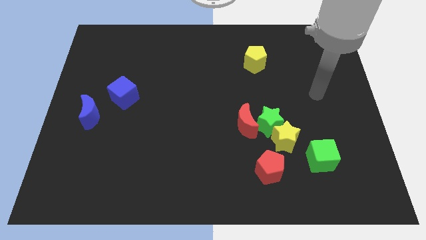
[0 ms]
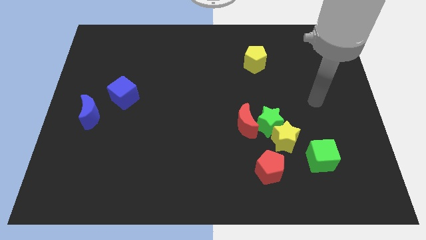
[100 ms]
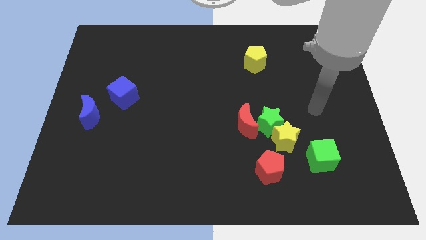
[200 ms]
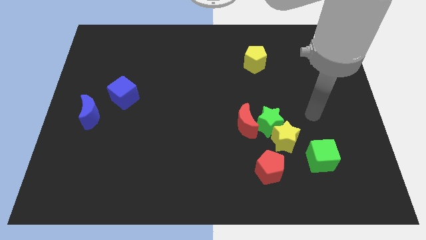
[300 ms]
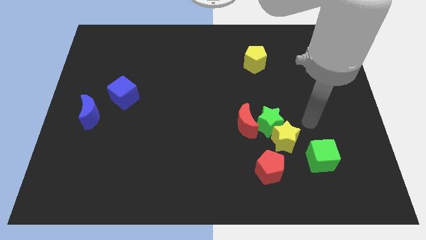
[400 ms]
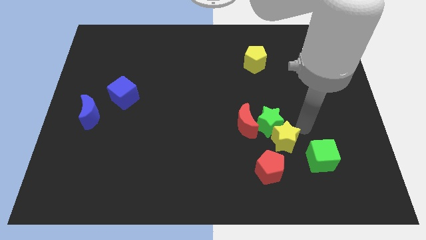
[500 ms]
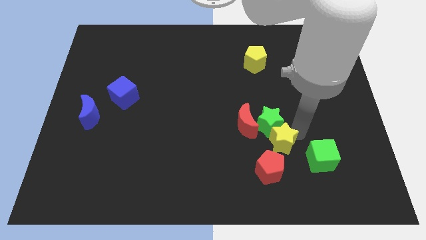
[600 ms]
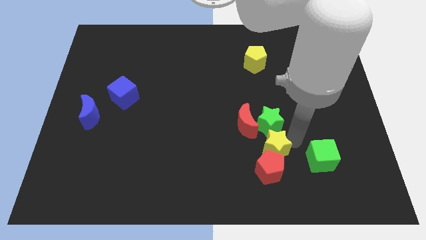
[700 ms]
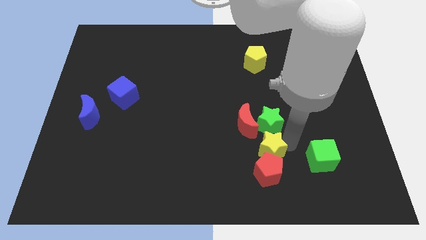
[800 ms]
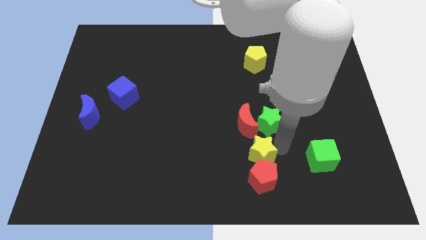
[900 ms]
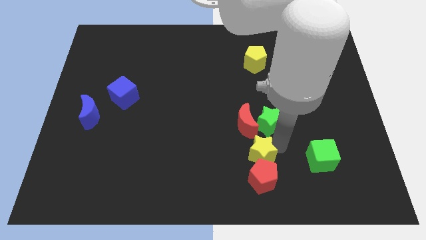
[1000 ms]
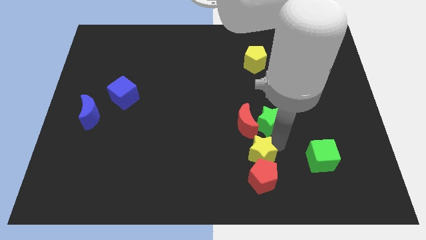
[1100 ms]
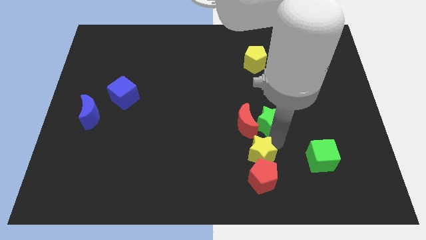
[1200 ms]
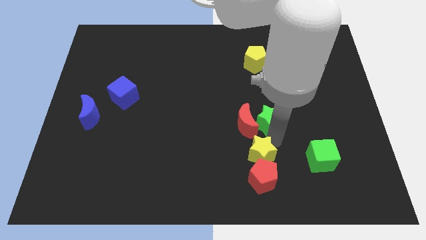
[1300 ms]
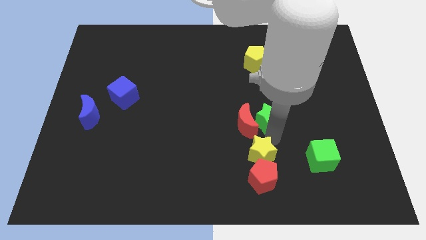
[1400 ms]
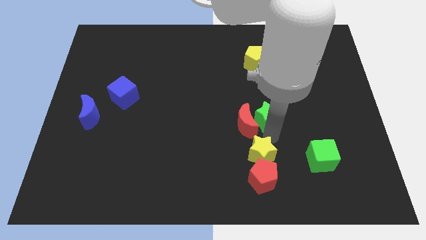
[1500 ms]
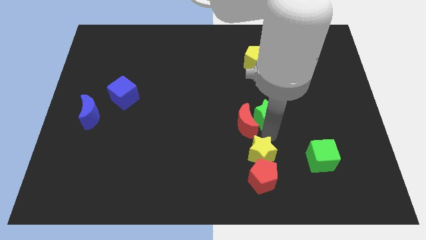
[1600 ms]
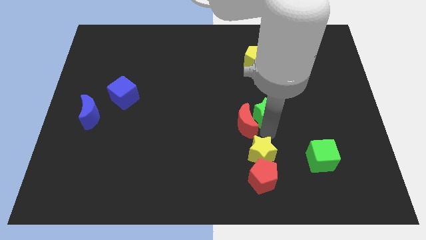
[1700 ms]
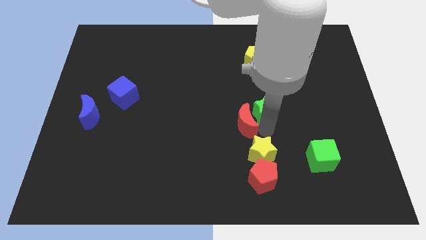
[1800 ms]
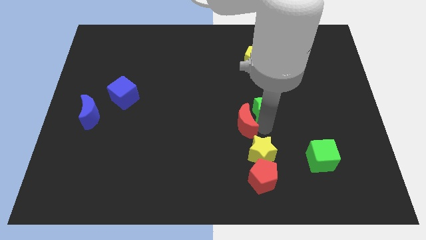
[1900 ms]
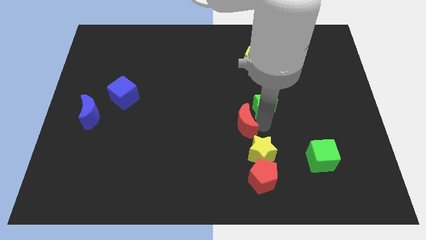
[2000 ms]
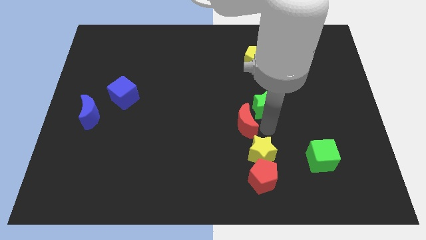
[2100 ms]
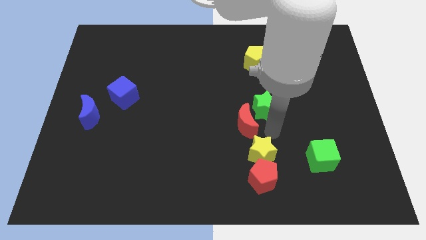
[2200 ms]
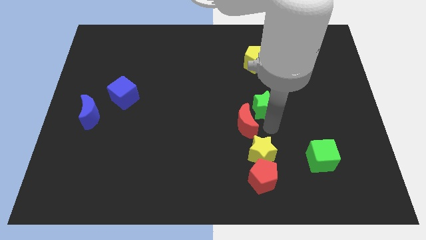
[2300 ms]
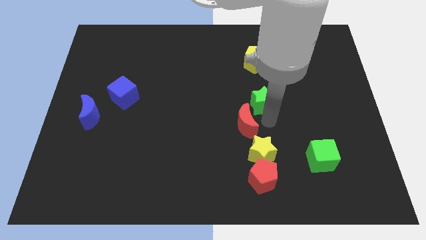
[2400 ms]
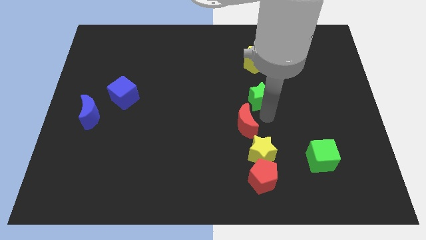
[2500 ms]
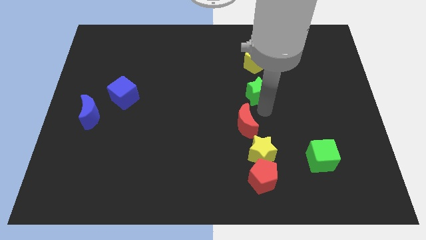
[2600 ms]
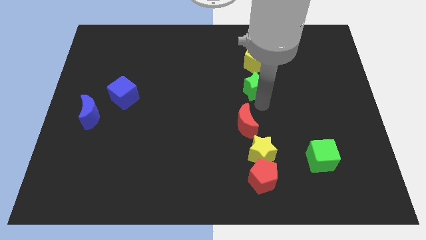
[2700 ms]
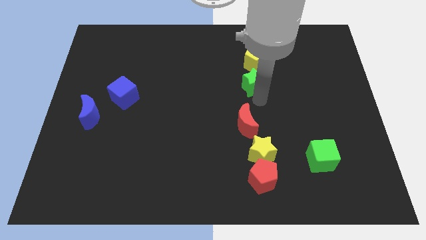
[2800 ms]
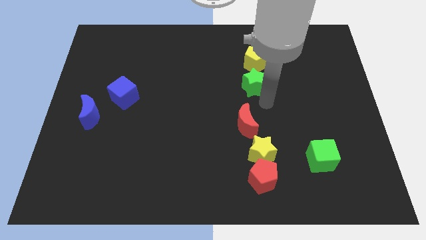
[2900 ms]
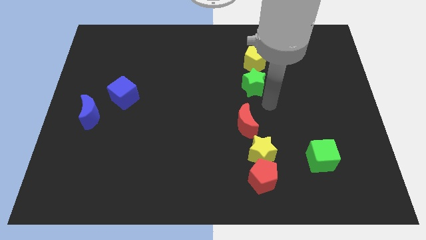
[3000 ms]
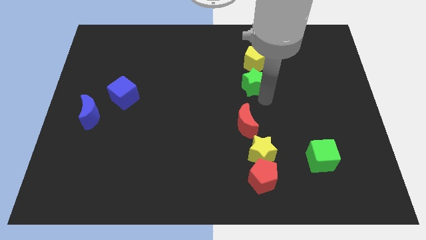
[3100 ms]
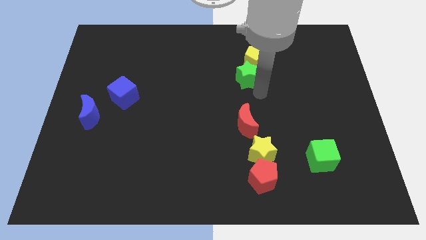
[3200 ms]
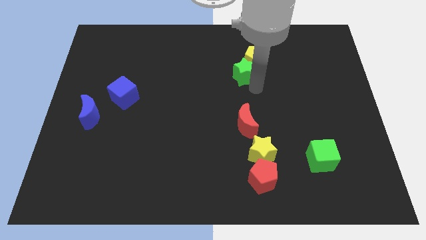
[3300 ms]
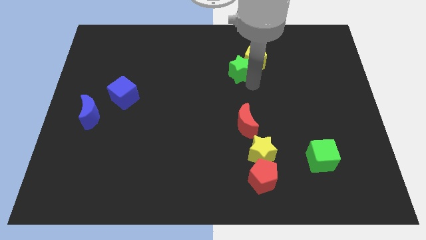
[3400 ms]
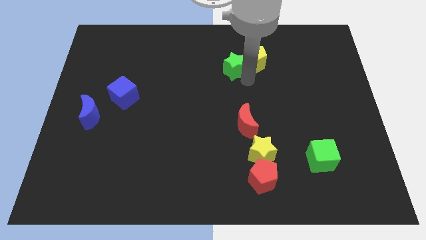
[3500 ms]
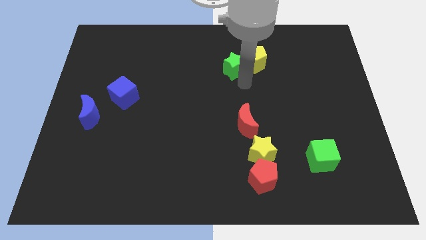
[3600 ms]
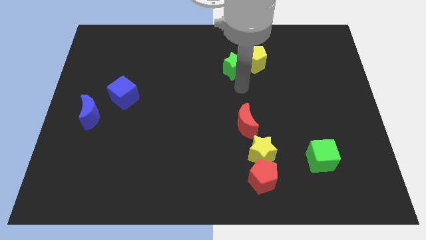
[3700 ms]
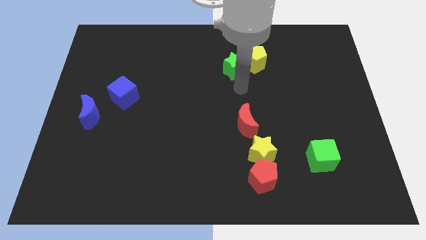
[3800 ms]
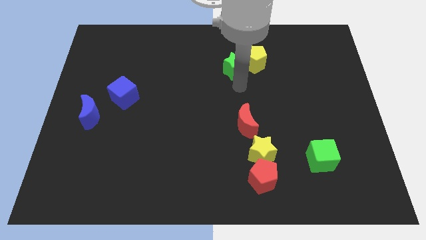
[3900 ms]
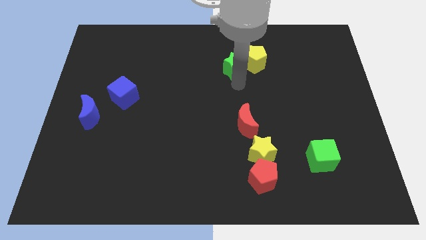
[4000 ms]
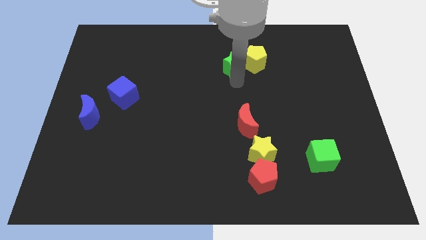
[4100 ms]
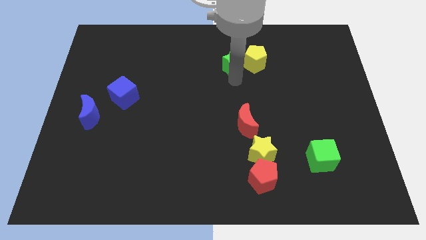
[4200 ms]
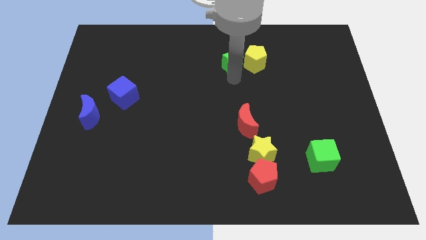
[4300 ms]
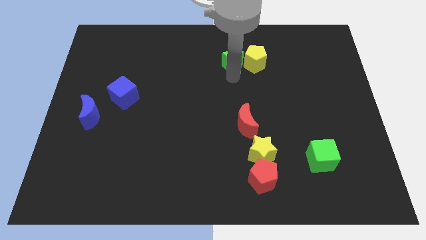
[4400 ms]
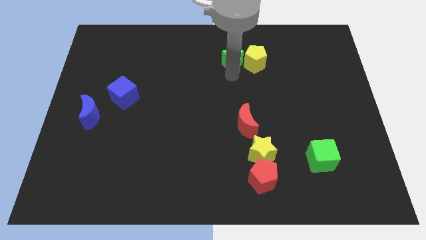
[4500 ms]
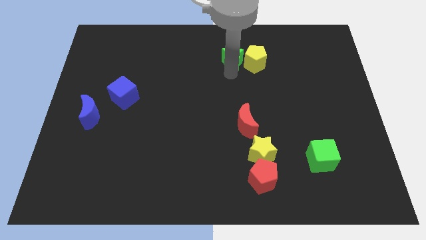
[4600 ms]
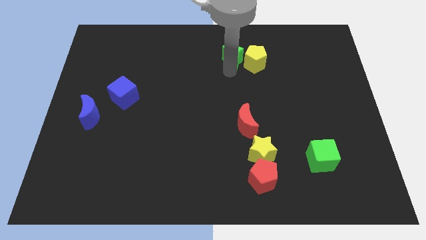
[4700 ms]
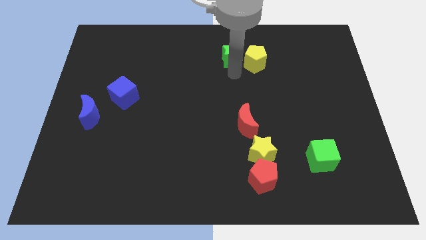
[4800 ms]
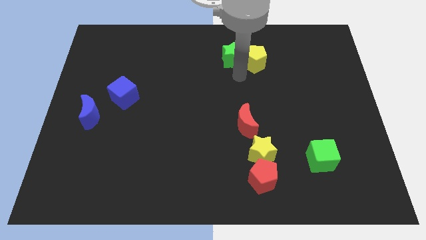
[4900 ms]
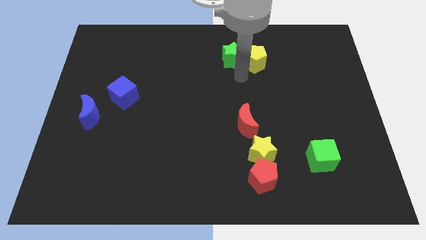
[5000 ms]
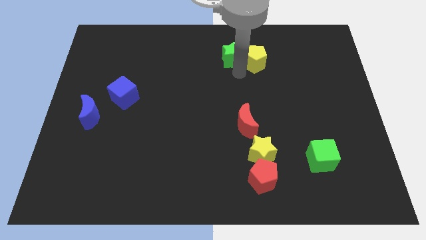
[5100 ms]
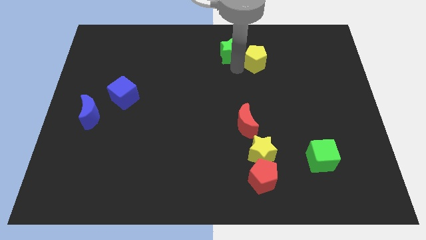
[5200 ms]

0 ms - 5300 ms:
move the green star to the top

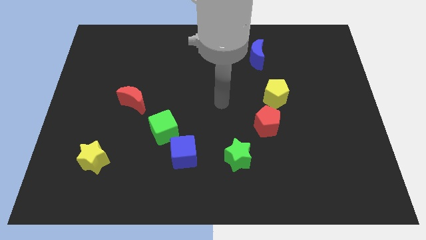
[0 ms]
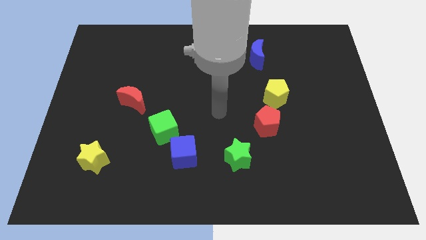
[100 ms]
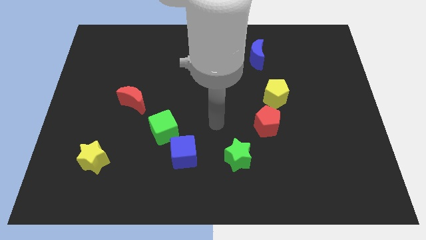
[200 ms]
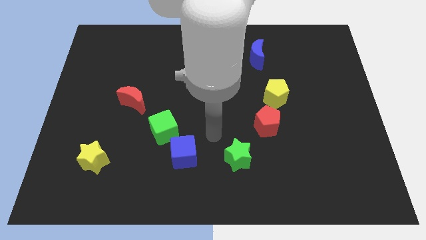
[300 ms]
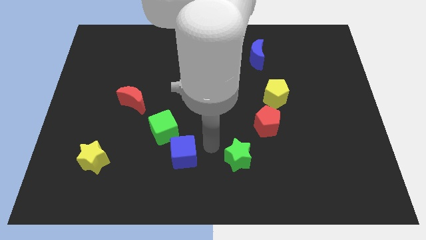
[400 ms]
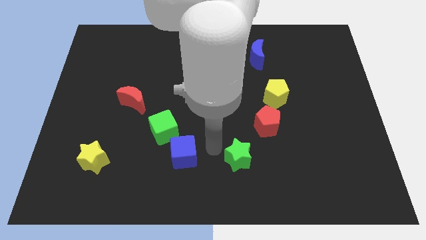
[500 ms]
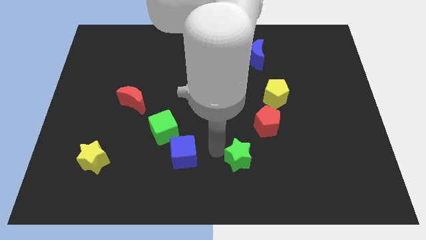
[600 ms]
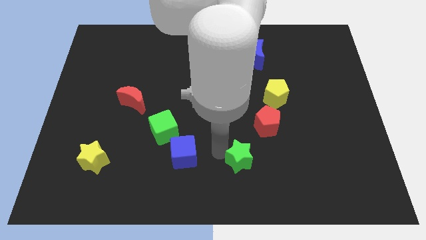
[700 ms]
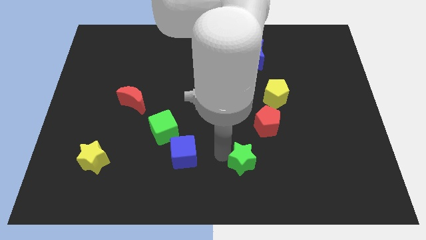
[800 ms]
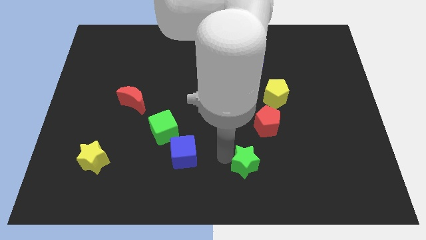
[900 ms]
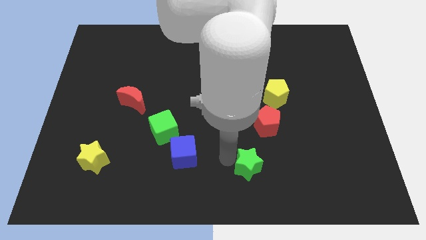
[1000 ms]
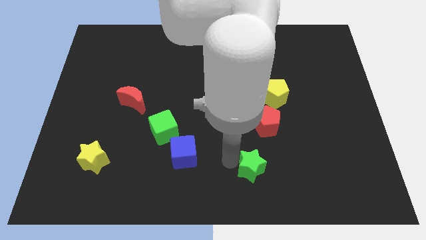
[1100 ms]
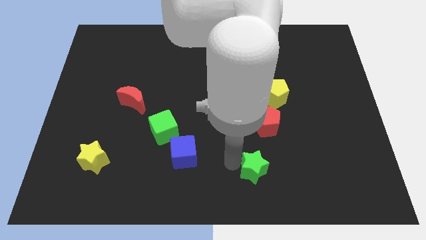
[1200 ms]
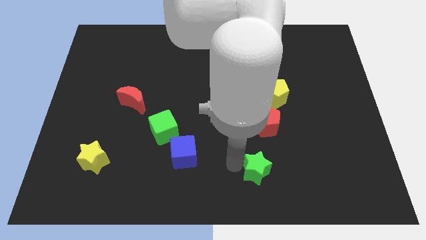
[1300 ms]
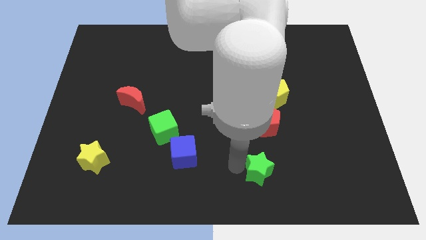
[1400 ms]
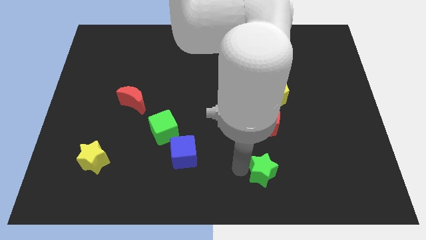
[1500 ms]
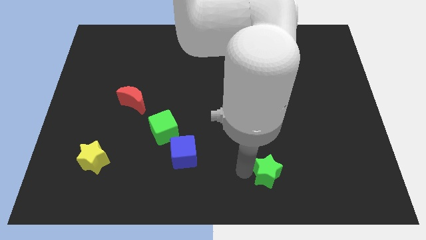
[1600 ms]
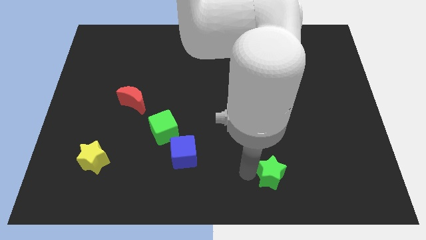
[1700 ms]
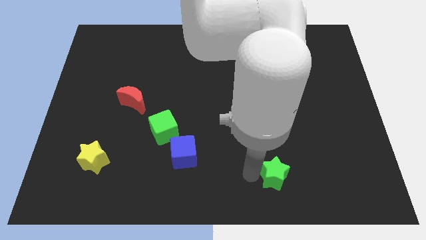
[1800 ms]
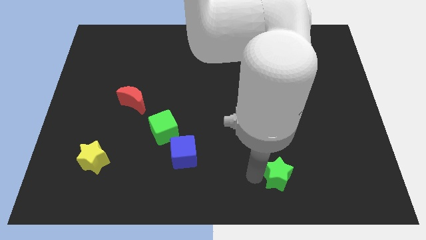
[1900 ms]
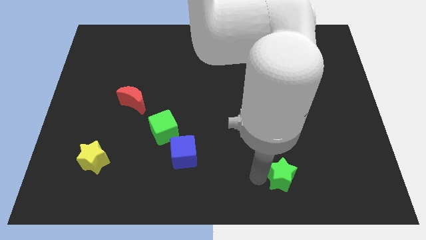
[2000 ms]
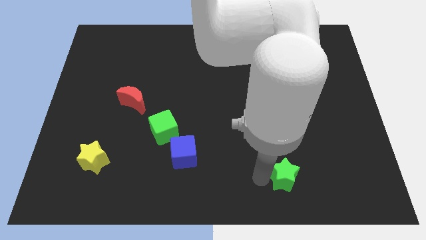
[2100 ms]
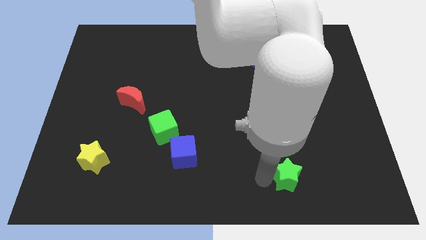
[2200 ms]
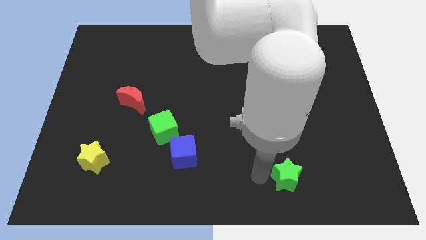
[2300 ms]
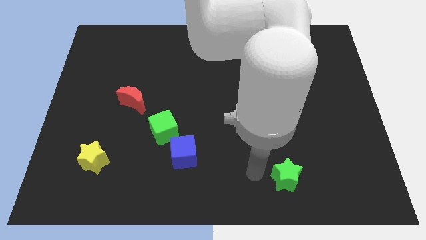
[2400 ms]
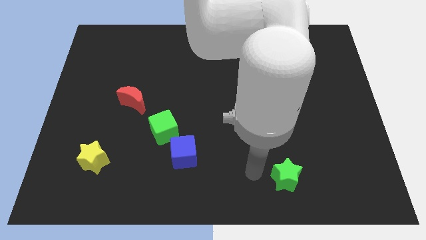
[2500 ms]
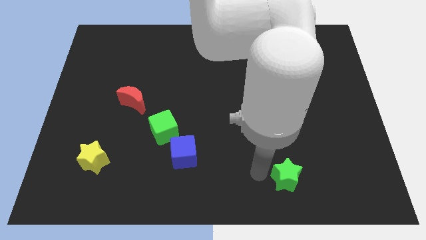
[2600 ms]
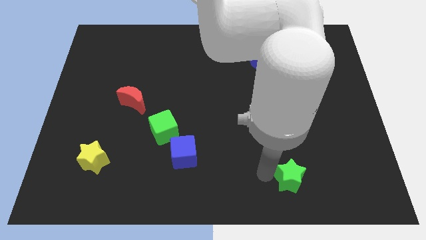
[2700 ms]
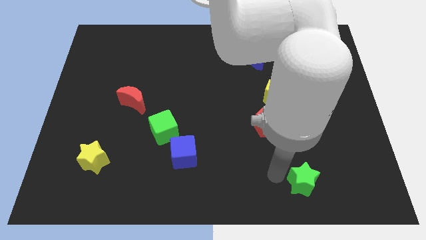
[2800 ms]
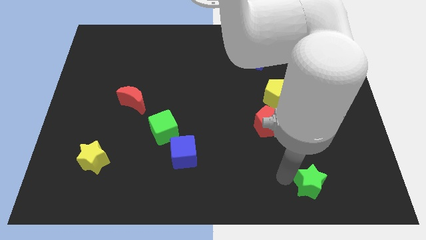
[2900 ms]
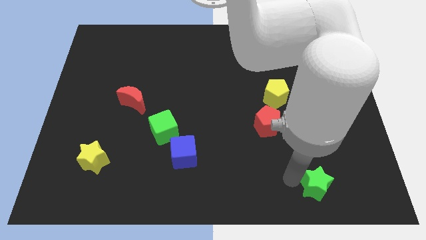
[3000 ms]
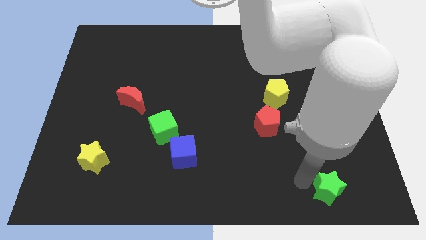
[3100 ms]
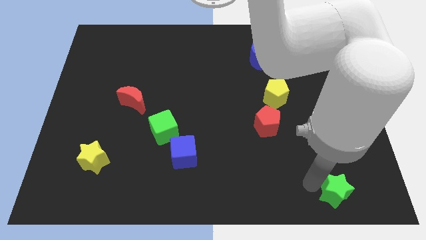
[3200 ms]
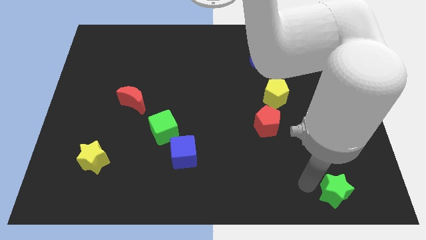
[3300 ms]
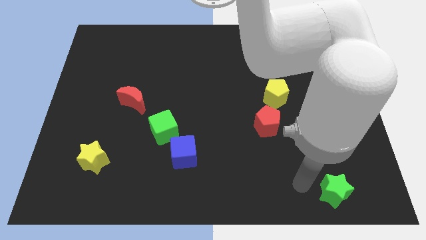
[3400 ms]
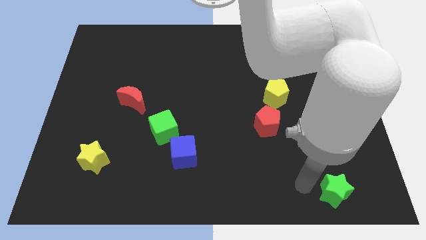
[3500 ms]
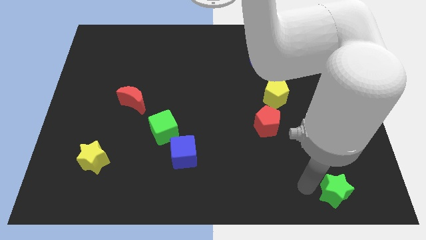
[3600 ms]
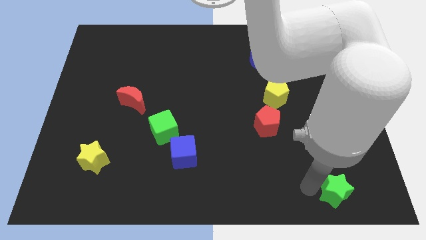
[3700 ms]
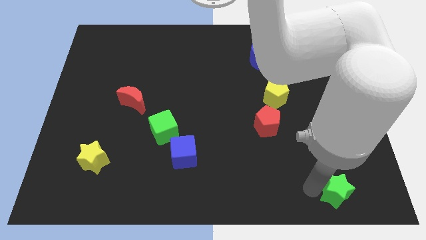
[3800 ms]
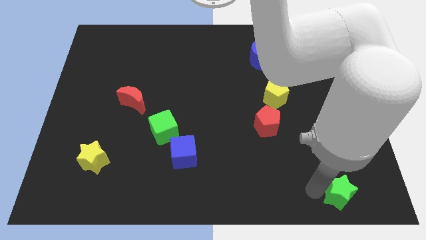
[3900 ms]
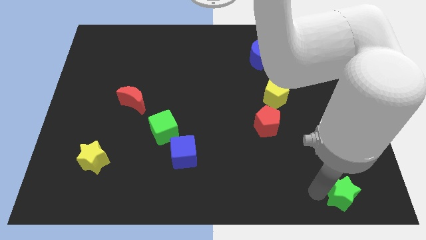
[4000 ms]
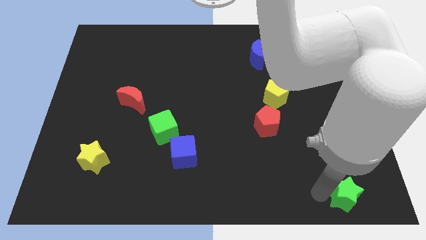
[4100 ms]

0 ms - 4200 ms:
move the green star to the bottom right of the board
